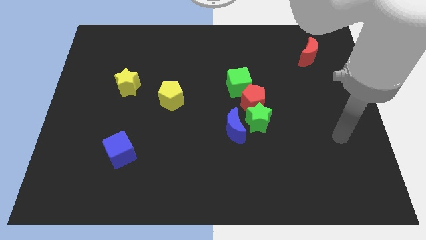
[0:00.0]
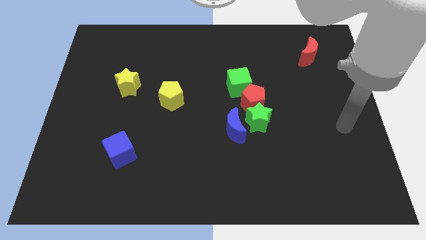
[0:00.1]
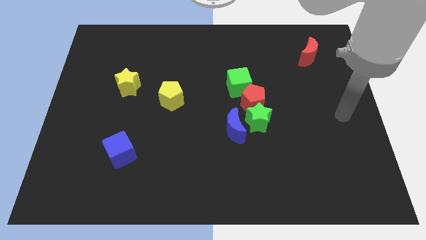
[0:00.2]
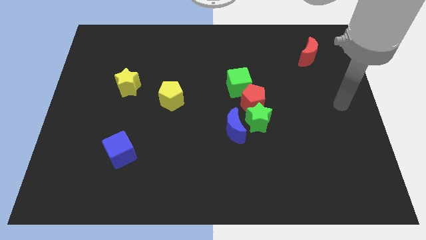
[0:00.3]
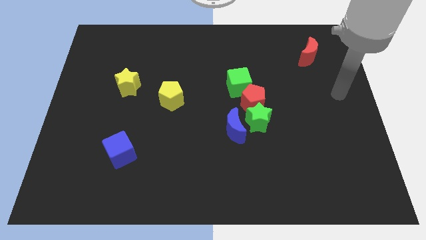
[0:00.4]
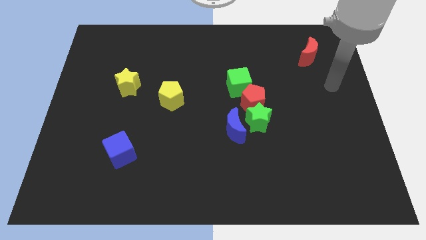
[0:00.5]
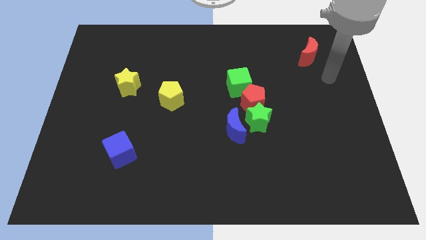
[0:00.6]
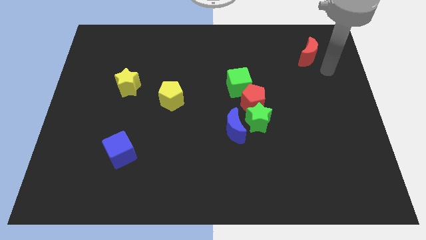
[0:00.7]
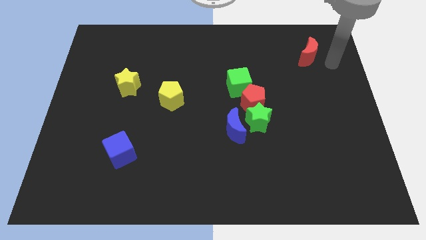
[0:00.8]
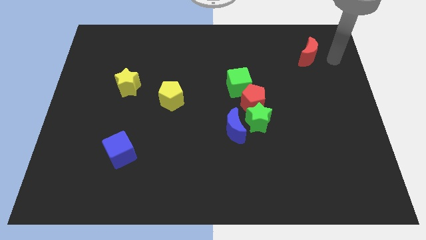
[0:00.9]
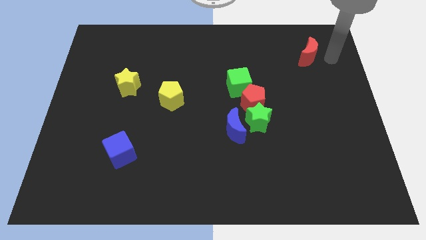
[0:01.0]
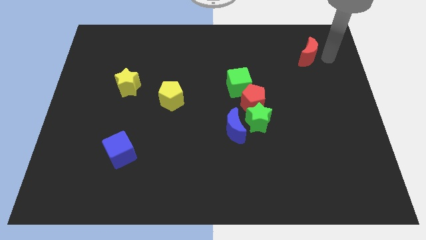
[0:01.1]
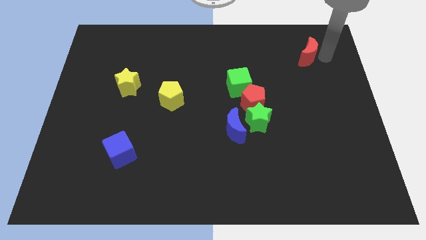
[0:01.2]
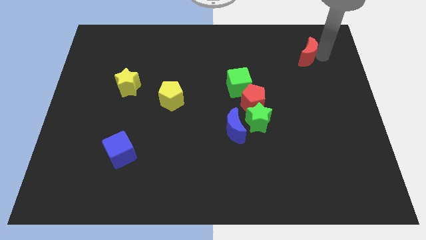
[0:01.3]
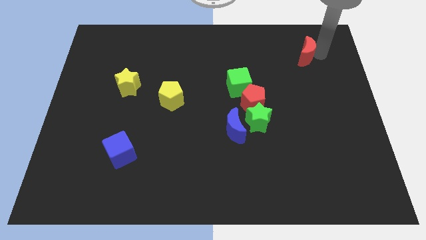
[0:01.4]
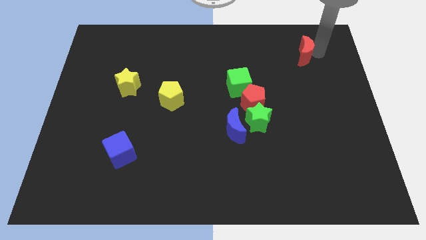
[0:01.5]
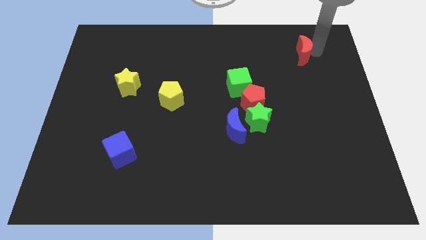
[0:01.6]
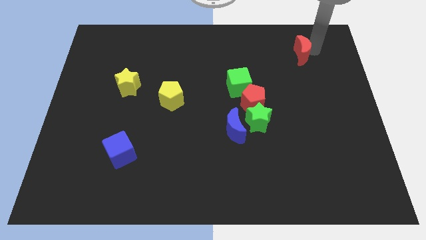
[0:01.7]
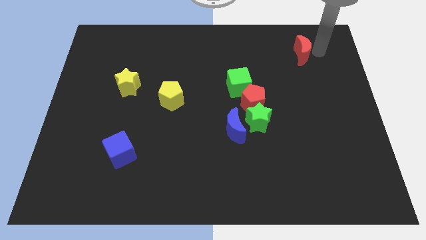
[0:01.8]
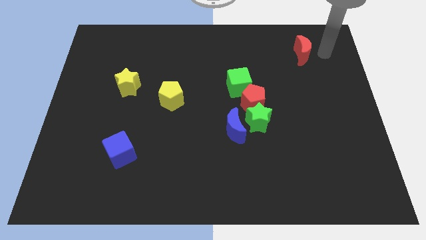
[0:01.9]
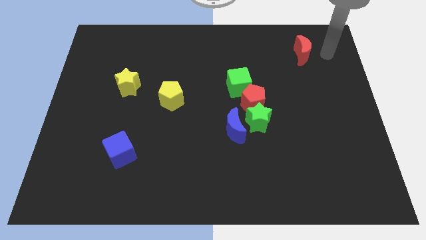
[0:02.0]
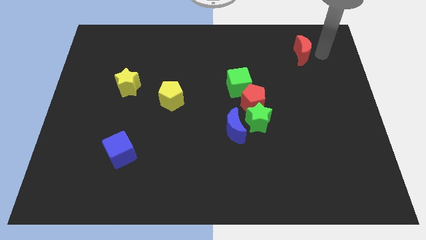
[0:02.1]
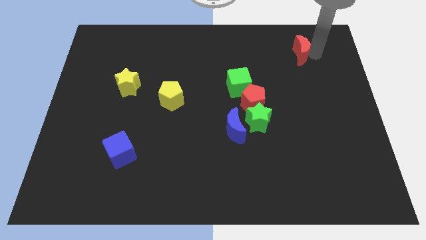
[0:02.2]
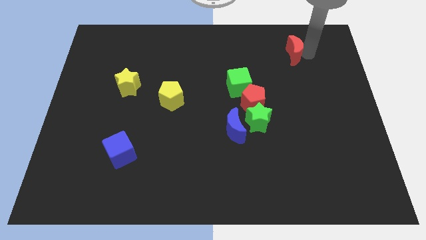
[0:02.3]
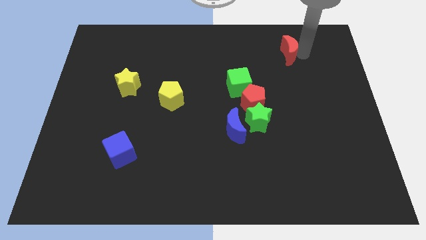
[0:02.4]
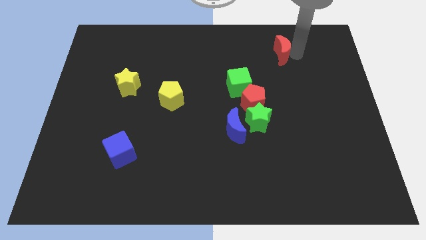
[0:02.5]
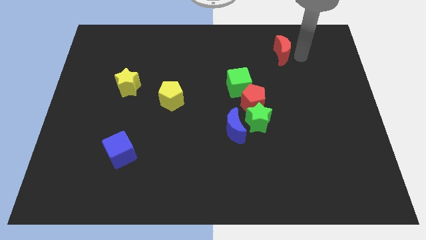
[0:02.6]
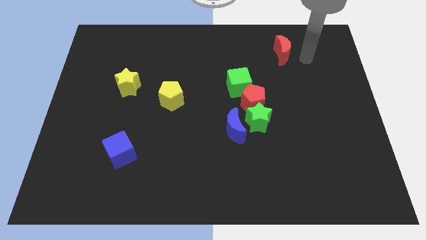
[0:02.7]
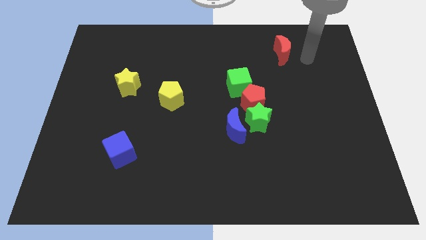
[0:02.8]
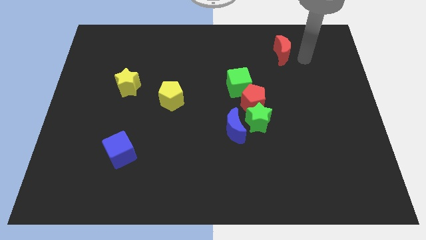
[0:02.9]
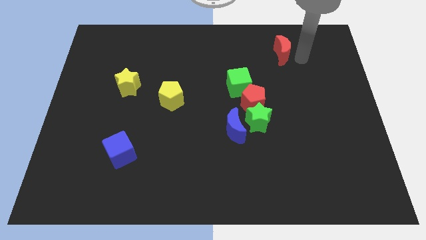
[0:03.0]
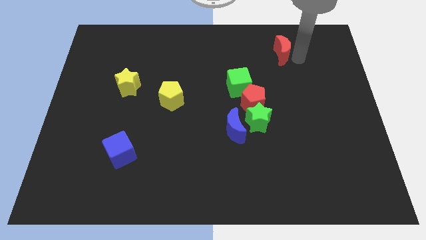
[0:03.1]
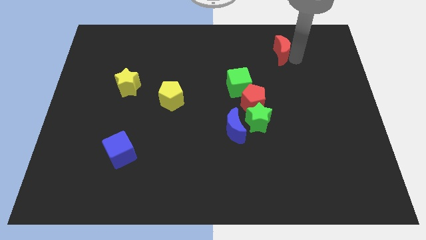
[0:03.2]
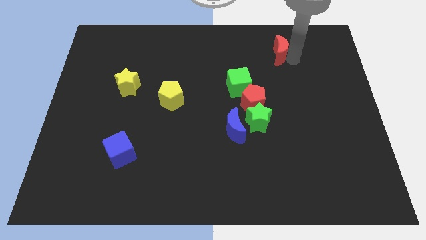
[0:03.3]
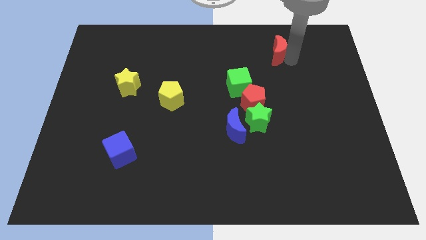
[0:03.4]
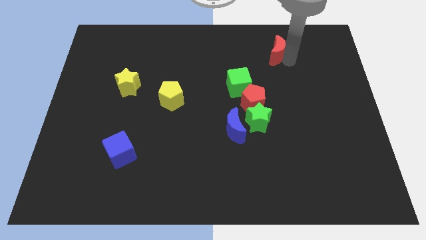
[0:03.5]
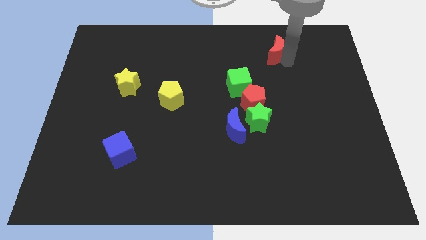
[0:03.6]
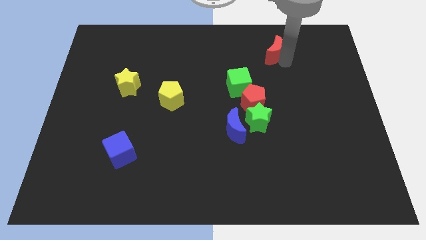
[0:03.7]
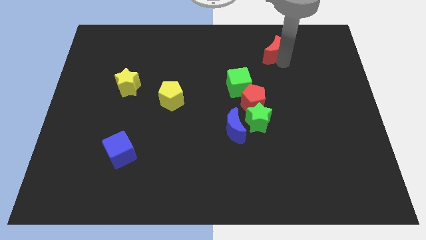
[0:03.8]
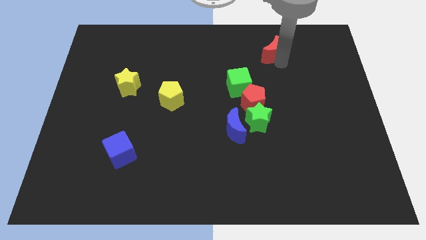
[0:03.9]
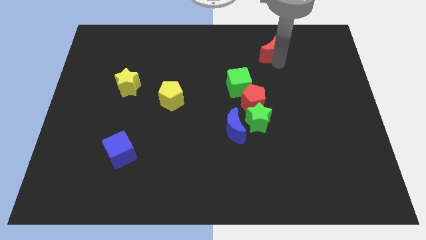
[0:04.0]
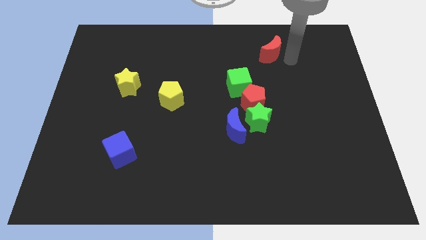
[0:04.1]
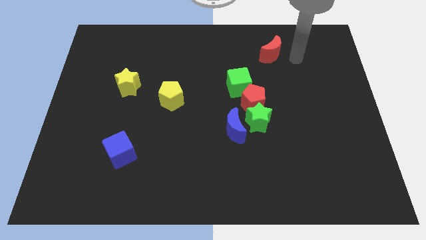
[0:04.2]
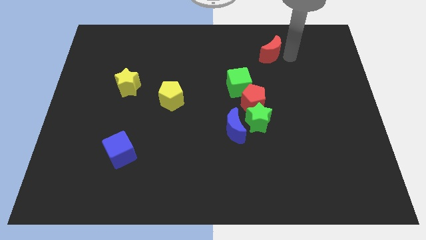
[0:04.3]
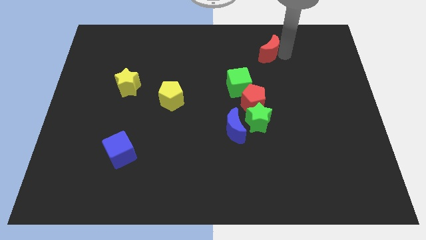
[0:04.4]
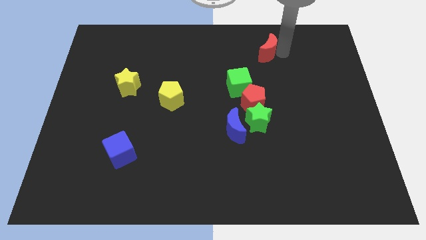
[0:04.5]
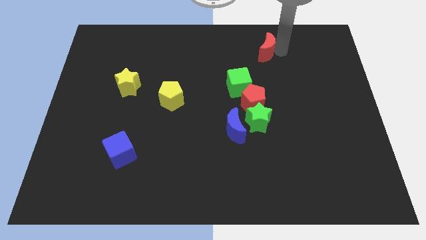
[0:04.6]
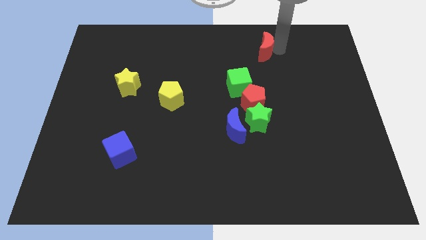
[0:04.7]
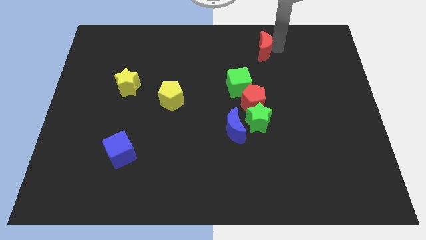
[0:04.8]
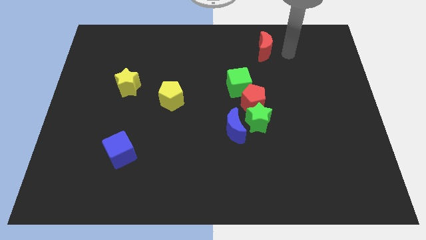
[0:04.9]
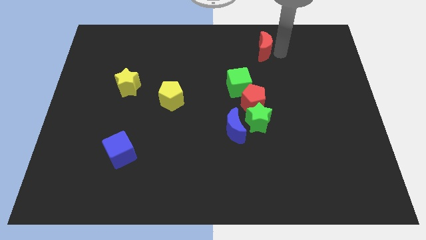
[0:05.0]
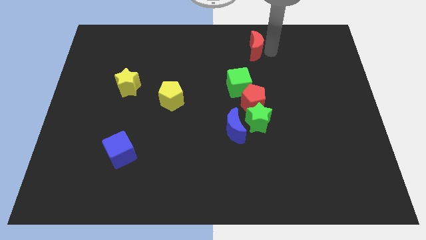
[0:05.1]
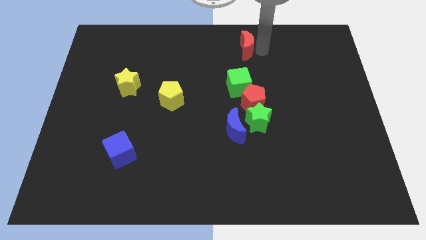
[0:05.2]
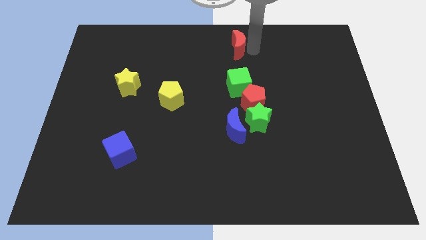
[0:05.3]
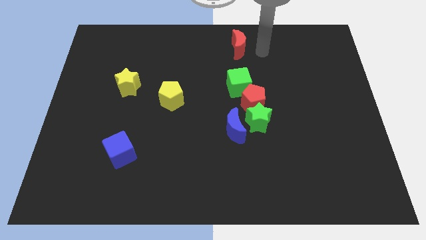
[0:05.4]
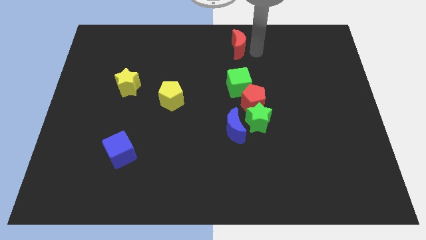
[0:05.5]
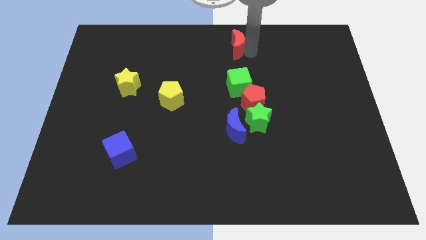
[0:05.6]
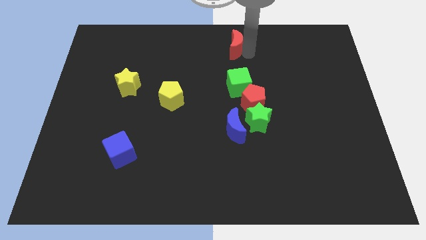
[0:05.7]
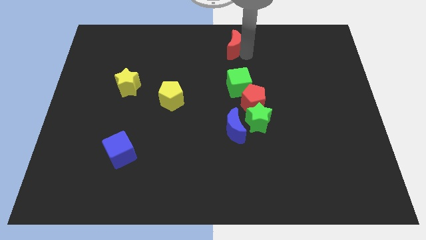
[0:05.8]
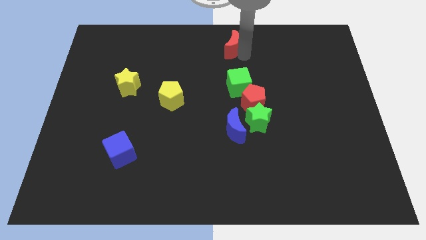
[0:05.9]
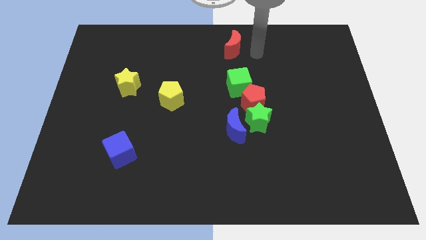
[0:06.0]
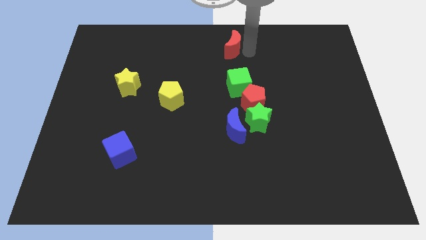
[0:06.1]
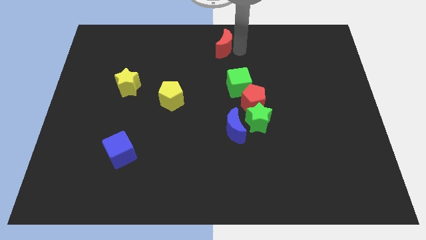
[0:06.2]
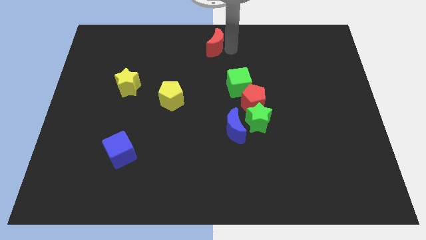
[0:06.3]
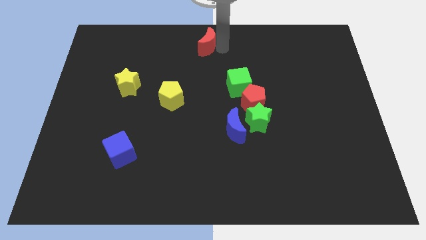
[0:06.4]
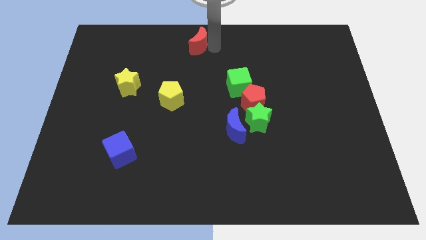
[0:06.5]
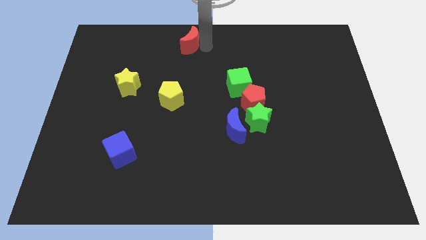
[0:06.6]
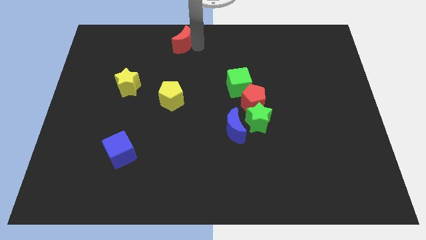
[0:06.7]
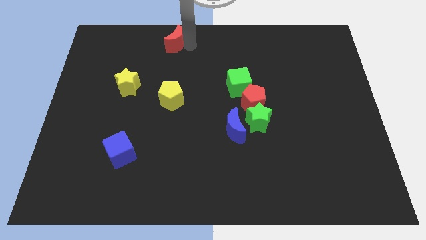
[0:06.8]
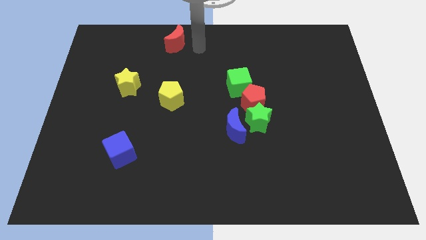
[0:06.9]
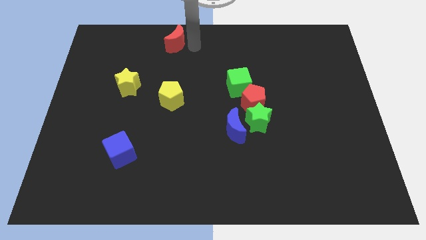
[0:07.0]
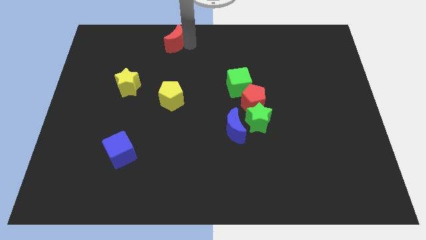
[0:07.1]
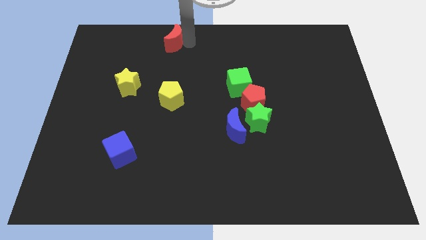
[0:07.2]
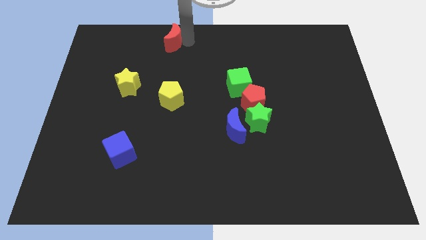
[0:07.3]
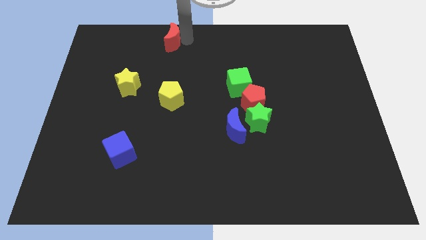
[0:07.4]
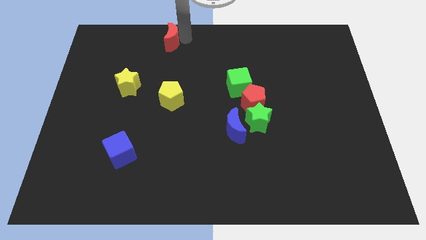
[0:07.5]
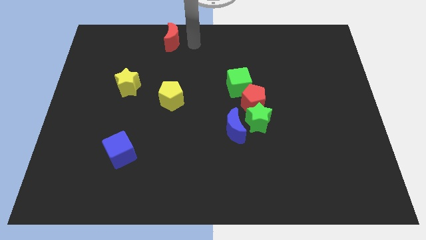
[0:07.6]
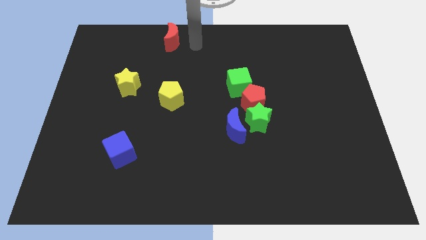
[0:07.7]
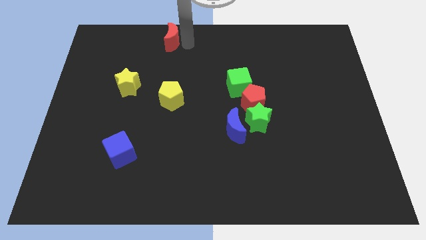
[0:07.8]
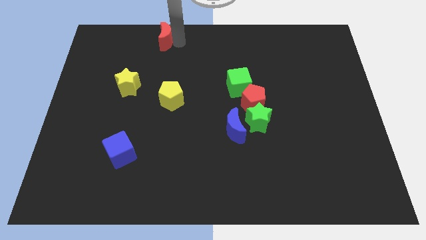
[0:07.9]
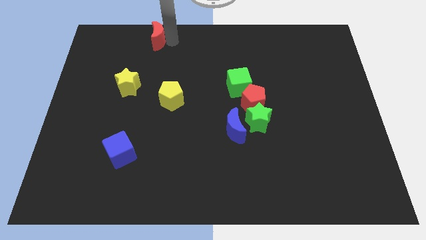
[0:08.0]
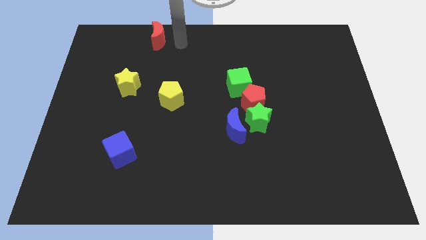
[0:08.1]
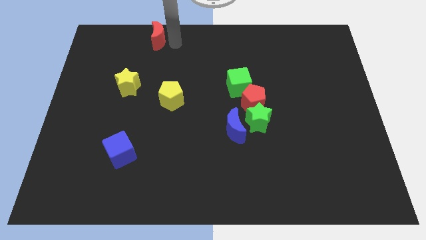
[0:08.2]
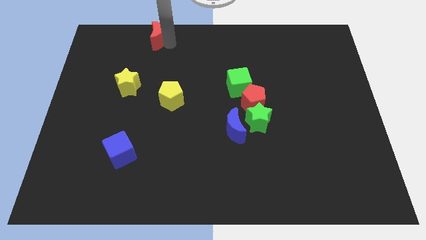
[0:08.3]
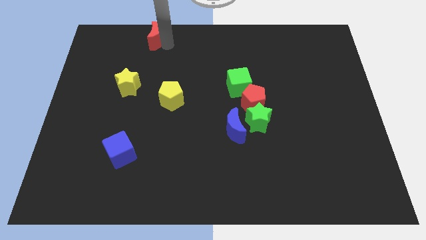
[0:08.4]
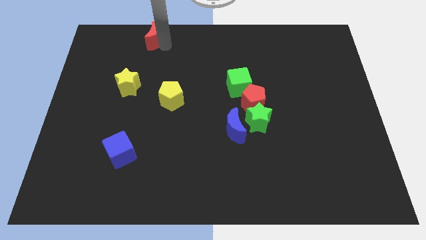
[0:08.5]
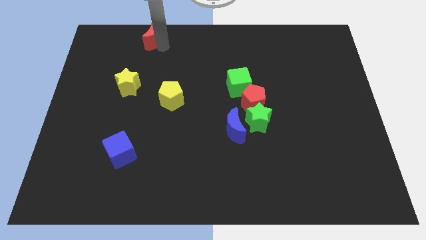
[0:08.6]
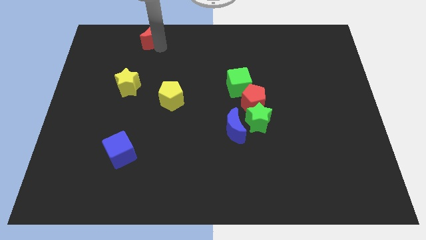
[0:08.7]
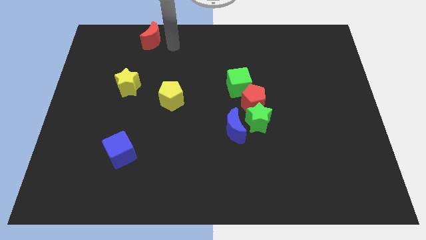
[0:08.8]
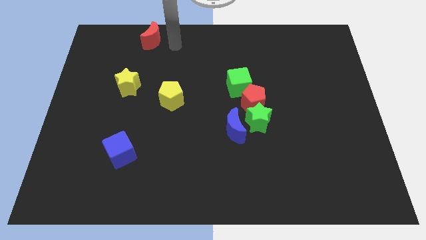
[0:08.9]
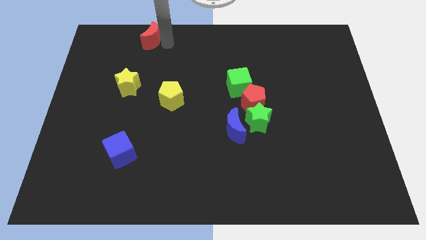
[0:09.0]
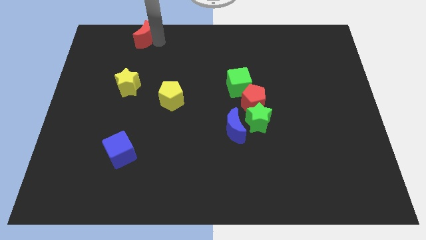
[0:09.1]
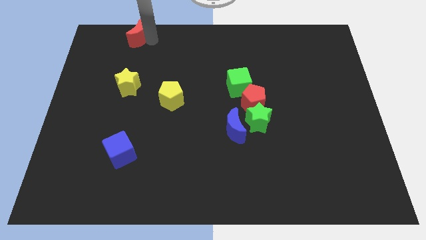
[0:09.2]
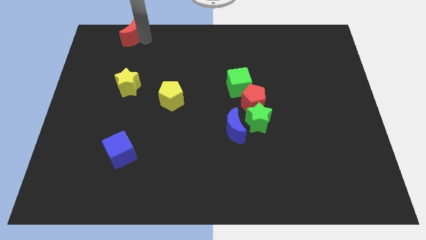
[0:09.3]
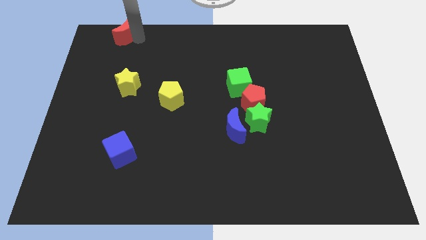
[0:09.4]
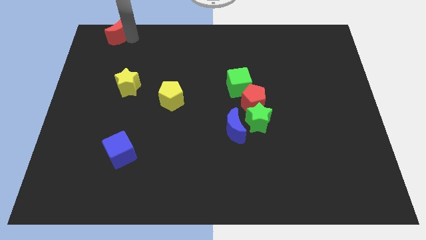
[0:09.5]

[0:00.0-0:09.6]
put the red moon to the top left
